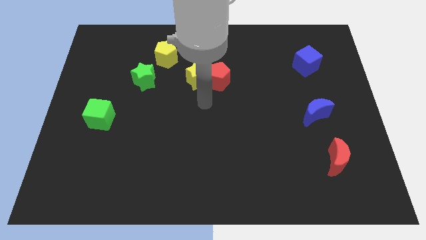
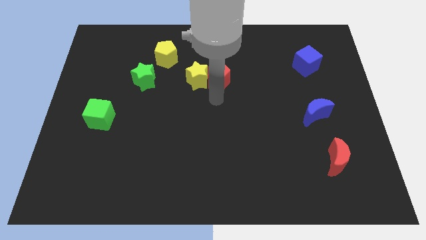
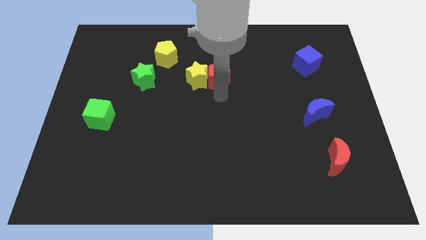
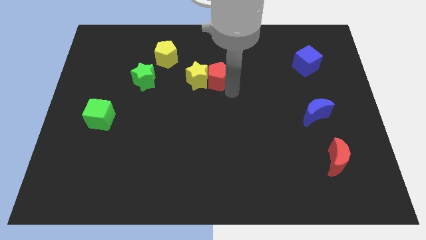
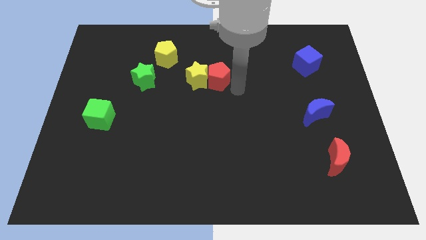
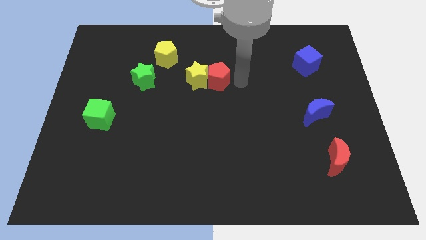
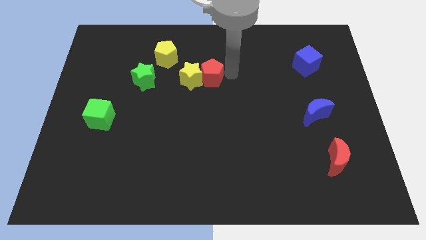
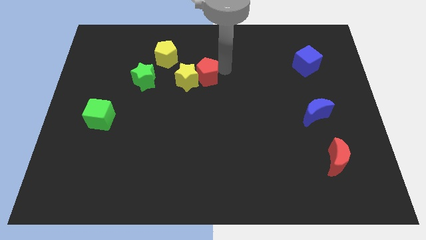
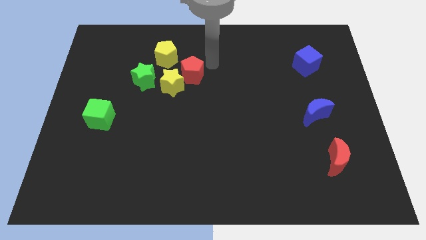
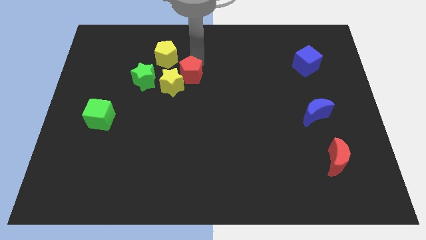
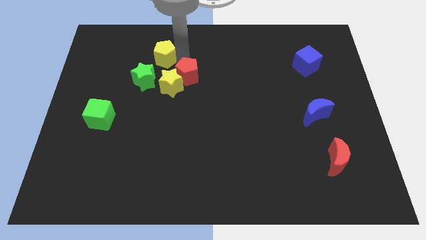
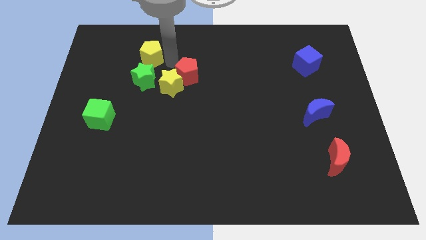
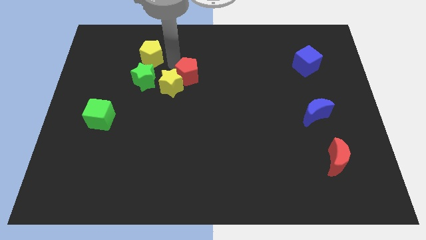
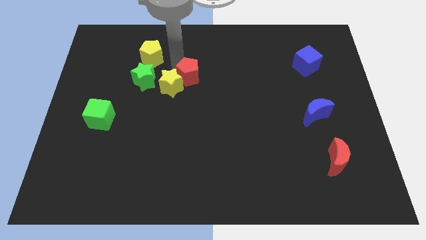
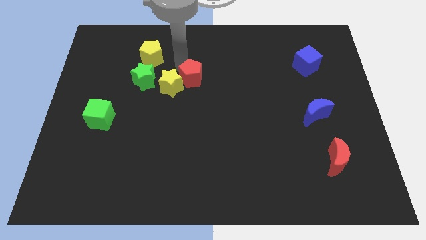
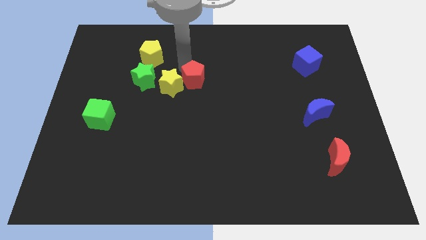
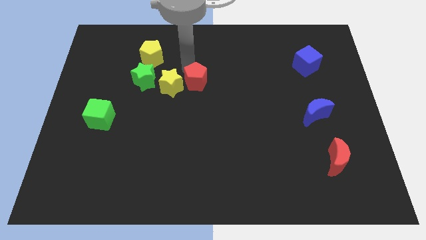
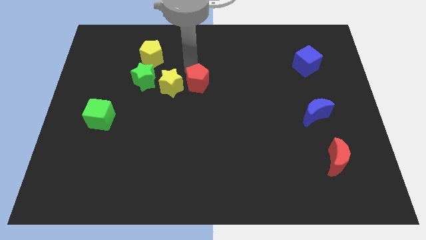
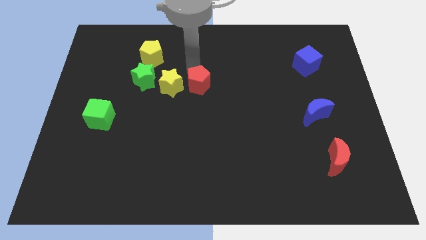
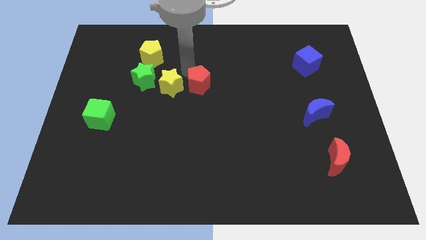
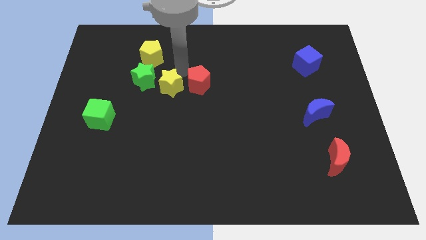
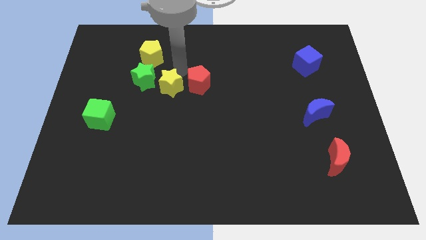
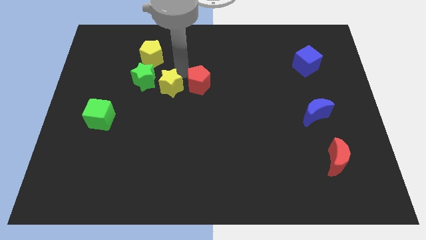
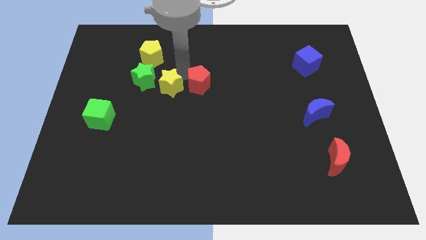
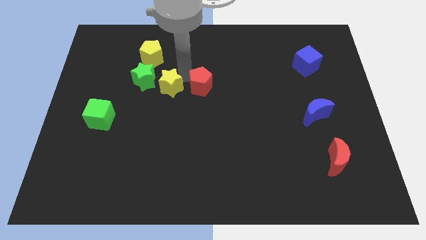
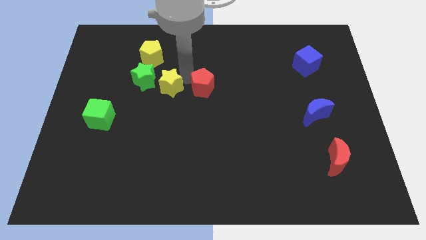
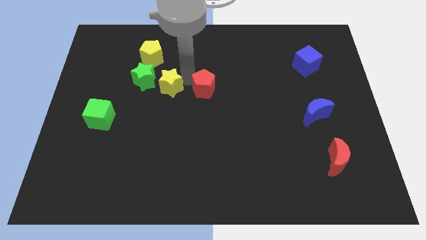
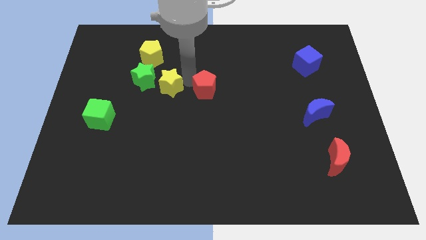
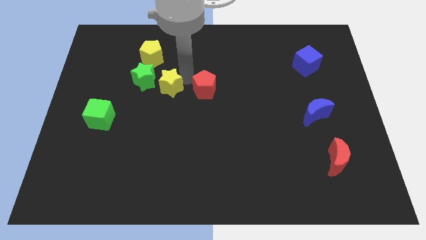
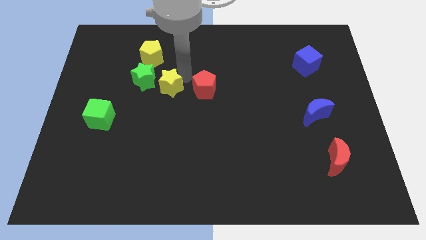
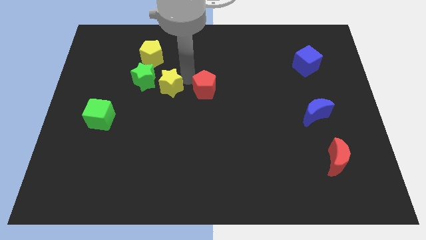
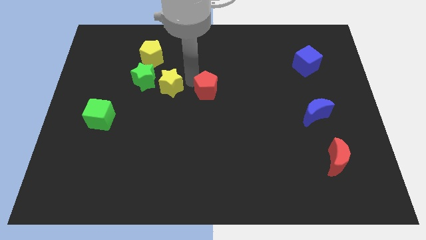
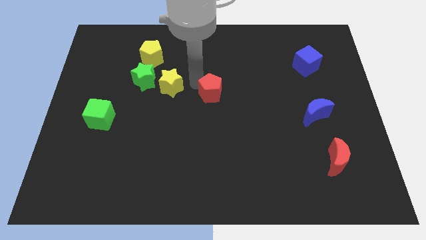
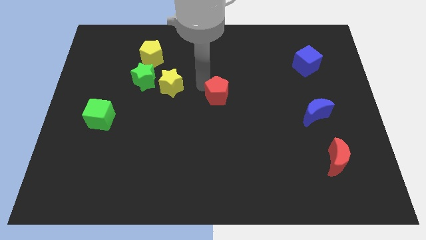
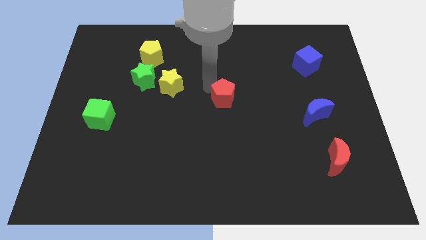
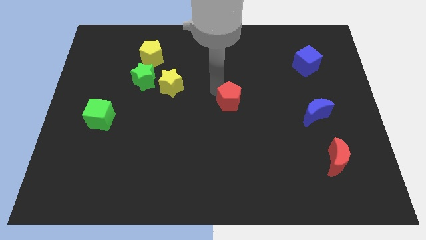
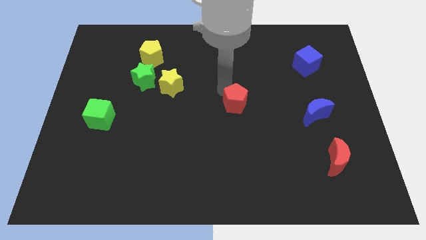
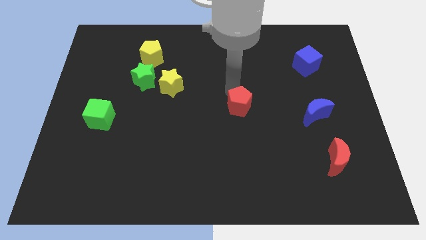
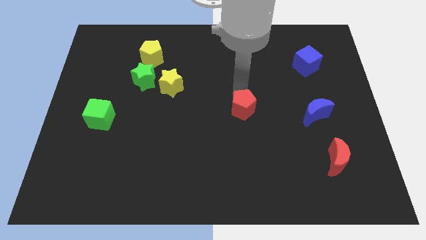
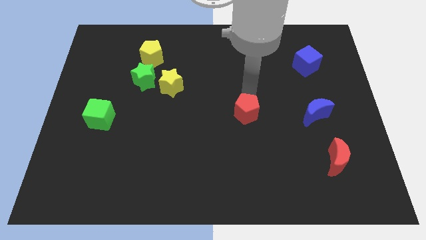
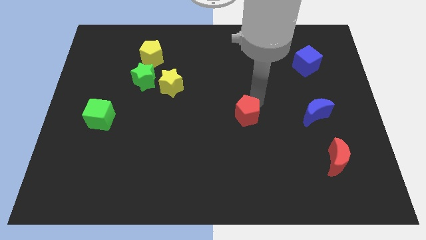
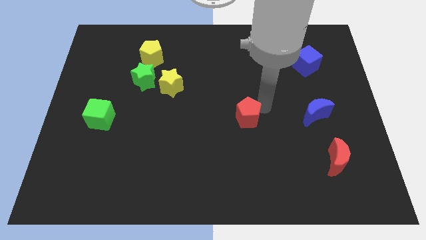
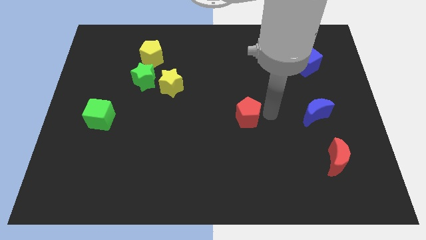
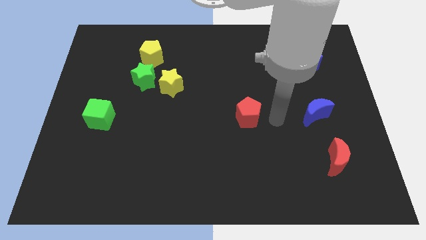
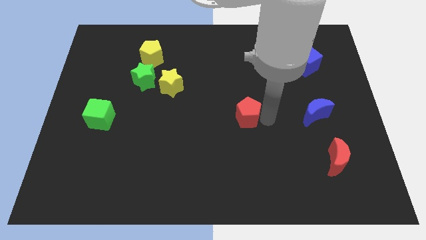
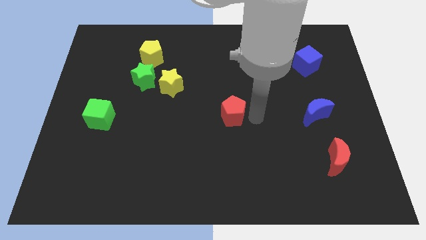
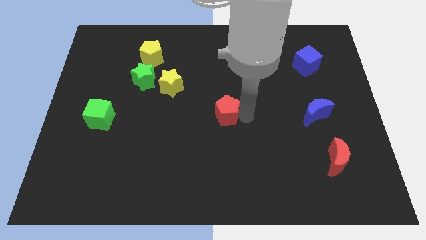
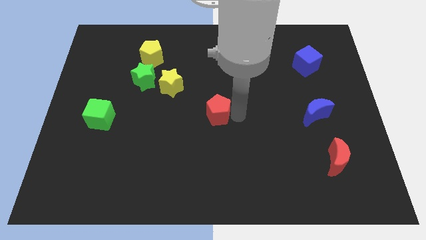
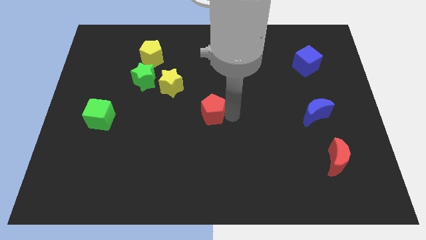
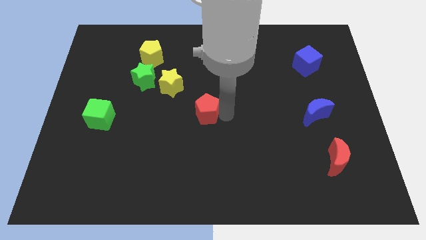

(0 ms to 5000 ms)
slide the red pentagon downwards and to the left slightly

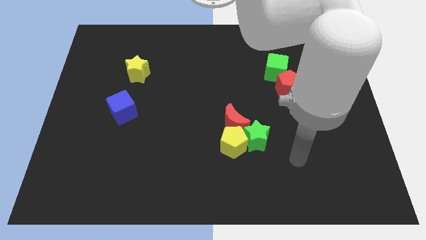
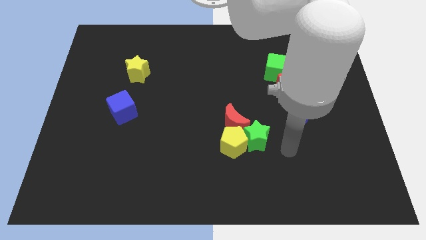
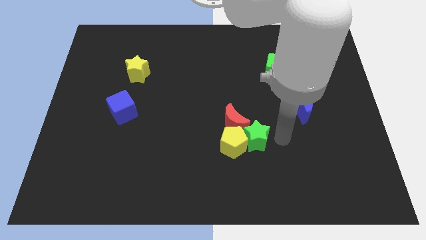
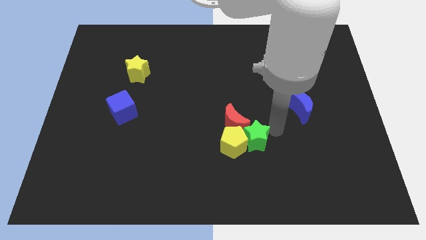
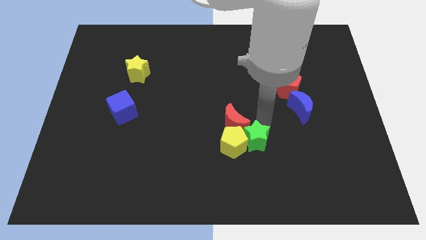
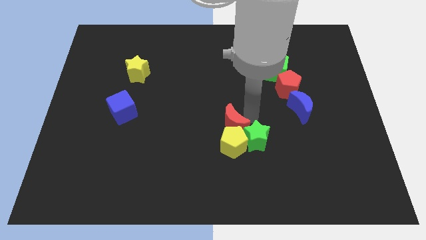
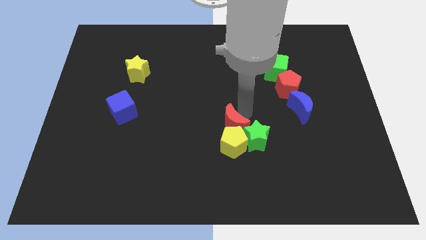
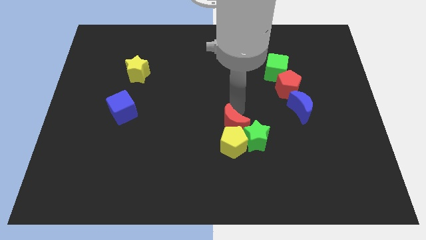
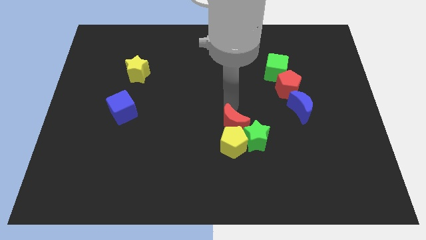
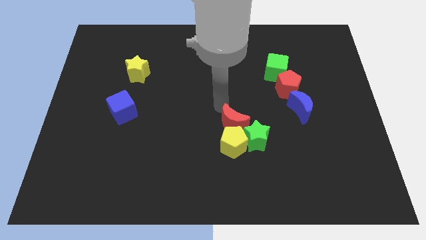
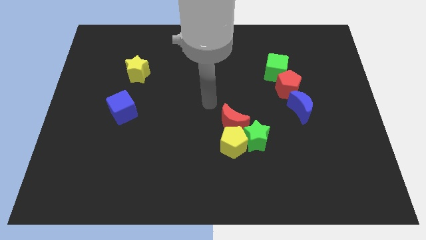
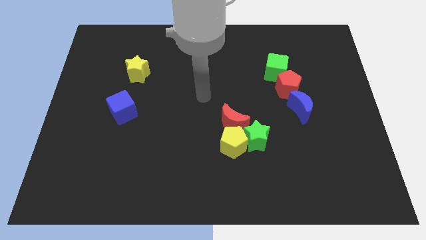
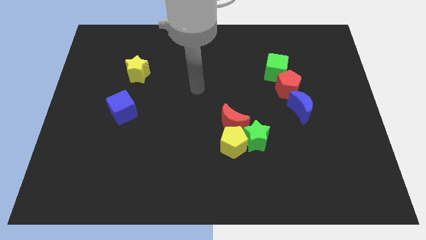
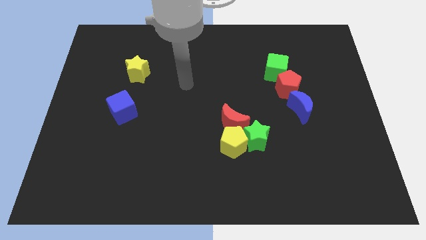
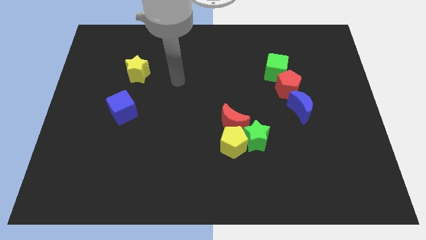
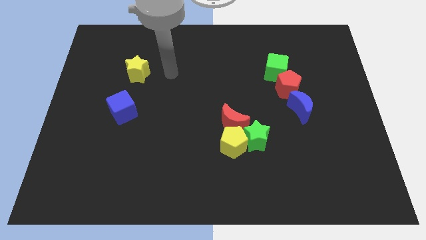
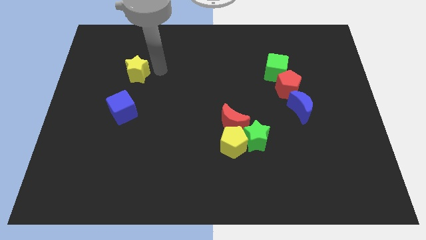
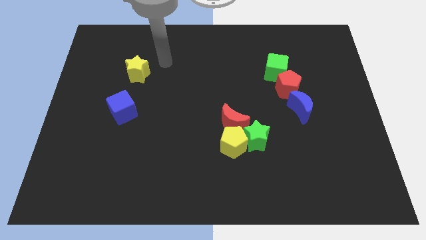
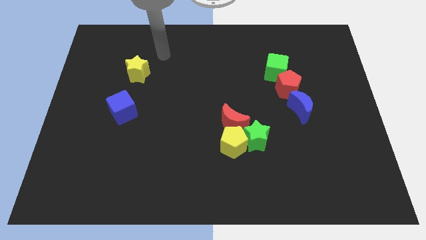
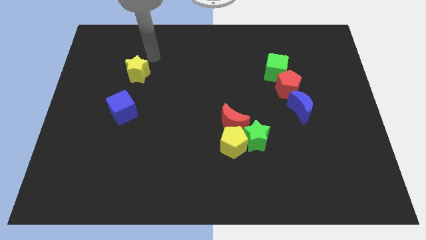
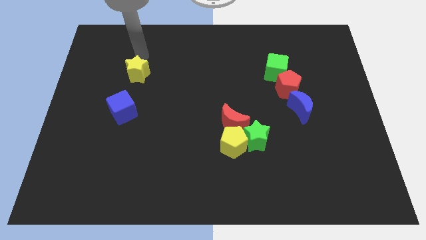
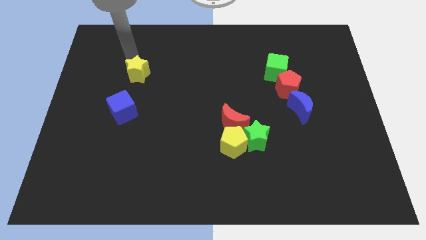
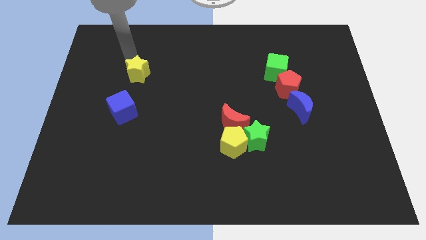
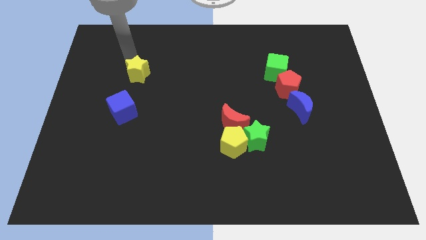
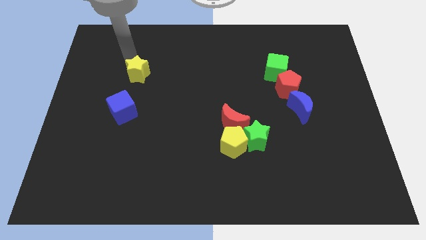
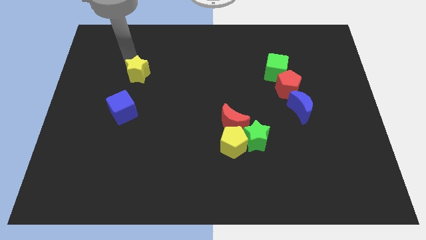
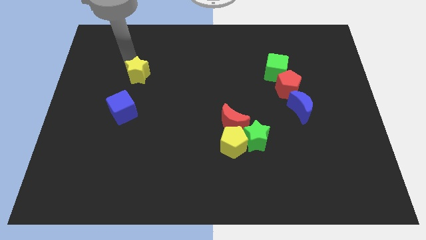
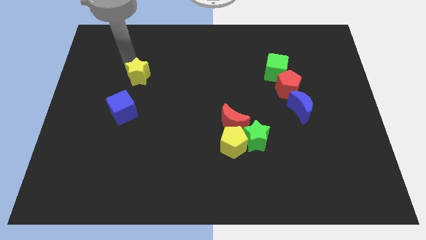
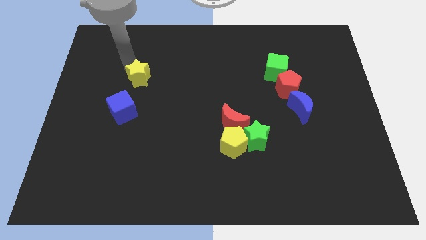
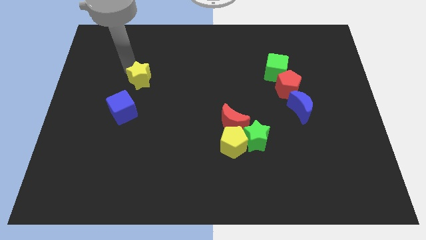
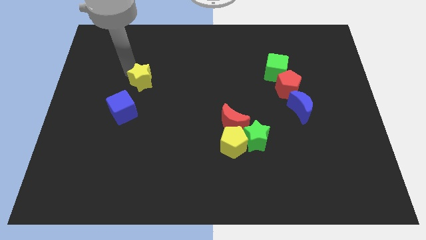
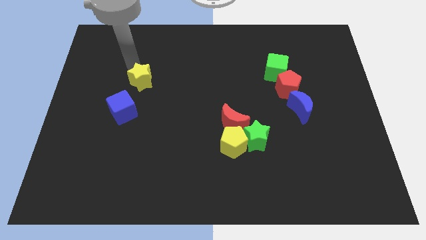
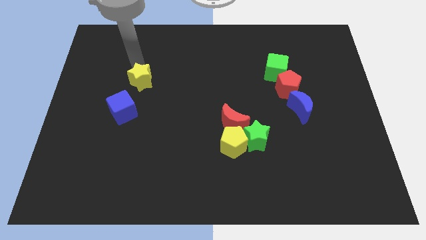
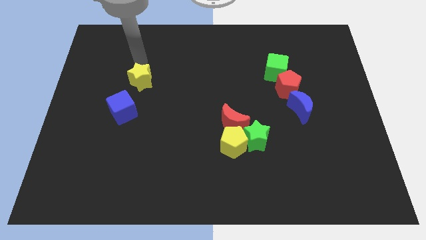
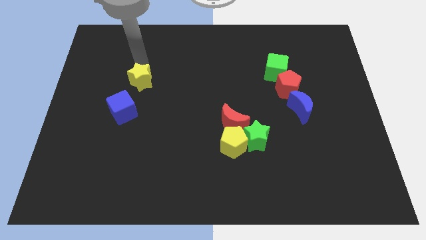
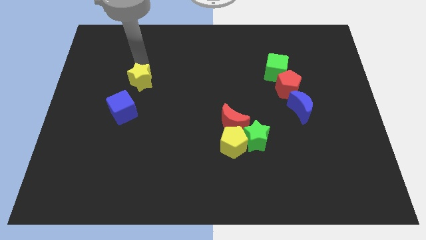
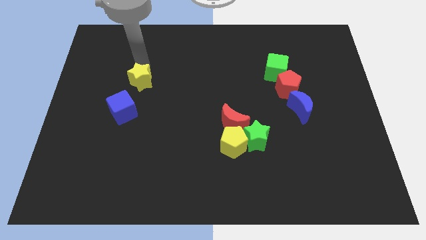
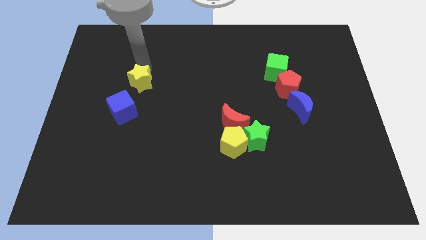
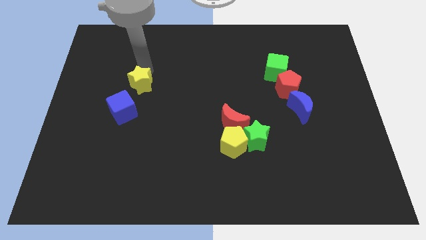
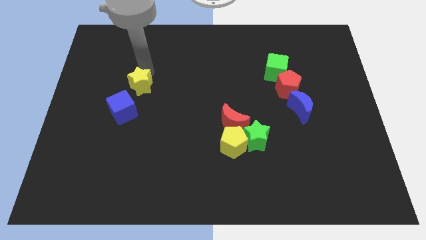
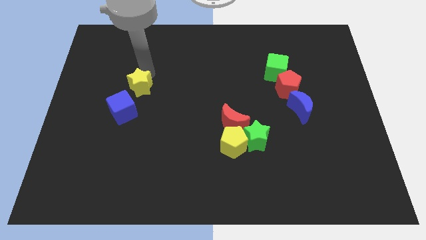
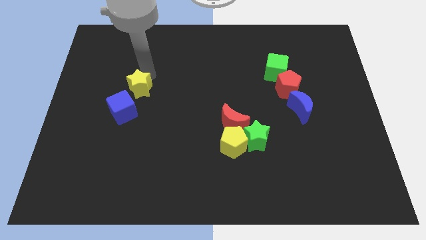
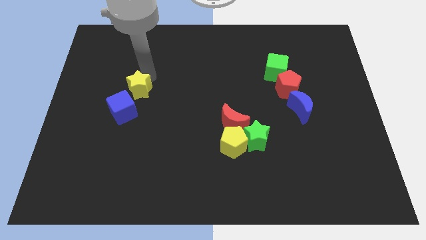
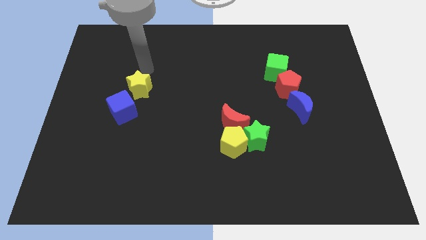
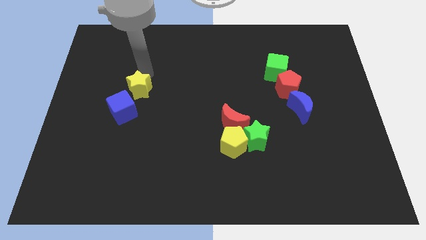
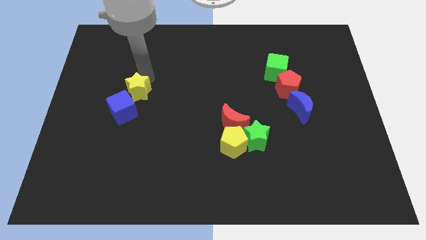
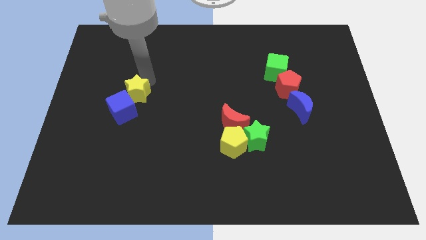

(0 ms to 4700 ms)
slide the yellow star down a bit
